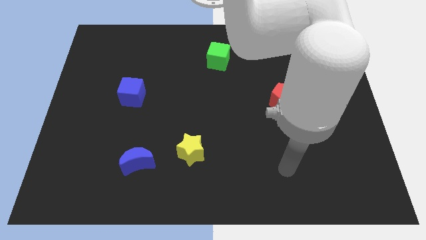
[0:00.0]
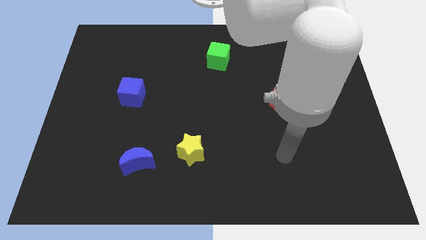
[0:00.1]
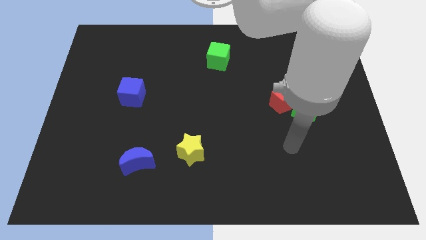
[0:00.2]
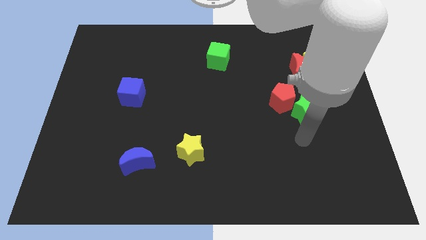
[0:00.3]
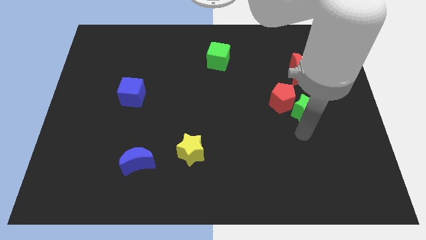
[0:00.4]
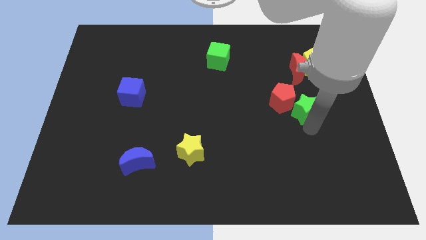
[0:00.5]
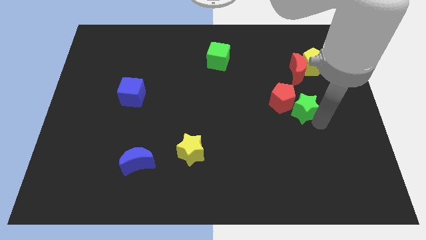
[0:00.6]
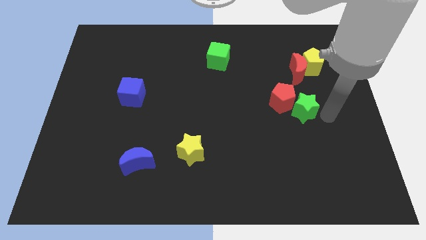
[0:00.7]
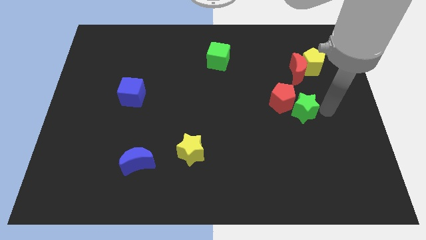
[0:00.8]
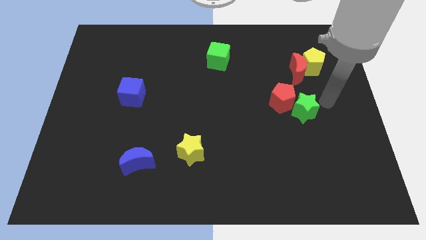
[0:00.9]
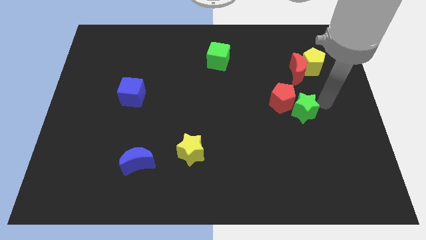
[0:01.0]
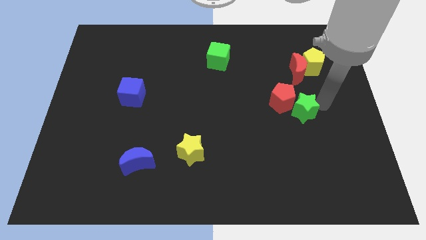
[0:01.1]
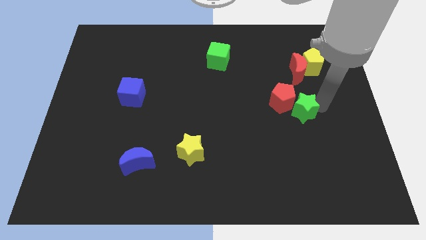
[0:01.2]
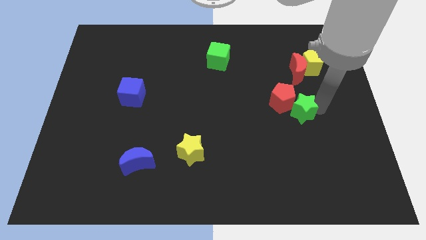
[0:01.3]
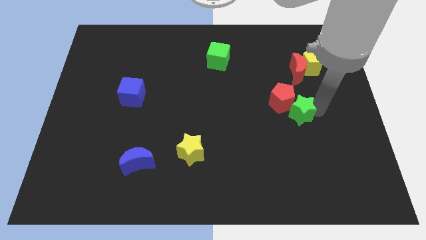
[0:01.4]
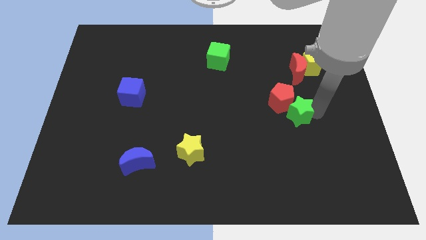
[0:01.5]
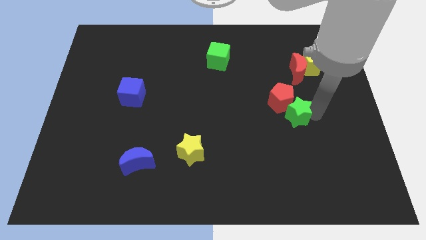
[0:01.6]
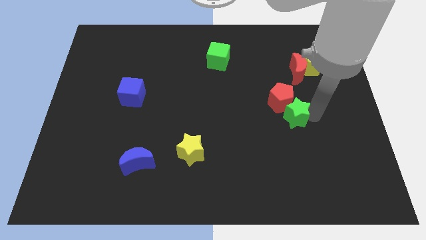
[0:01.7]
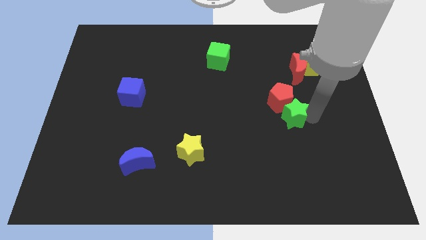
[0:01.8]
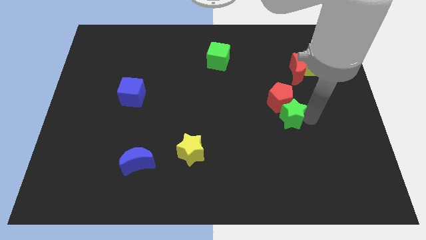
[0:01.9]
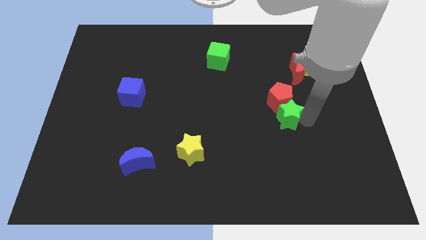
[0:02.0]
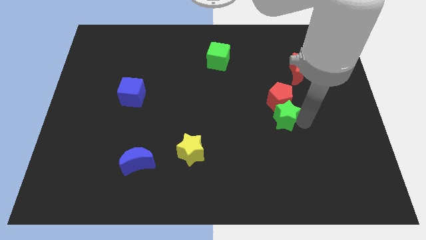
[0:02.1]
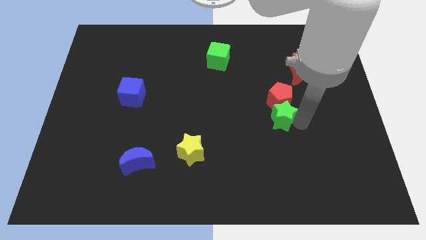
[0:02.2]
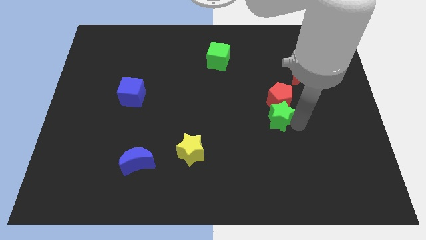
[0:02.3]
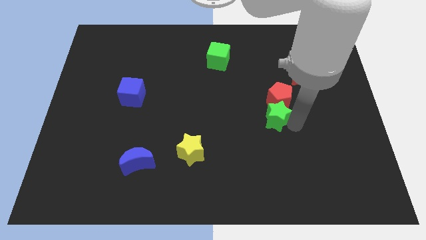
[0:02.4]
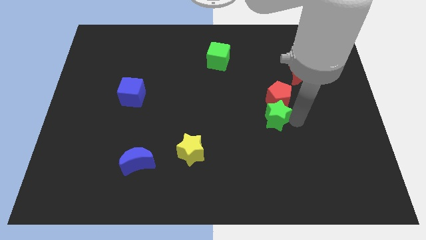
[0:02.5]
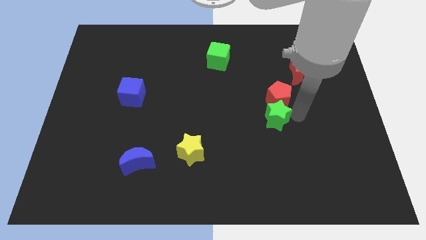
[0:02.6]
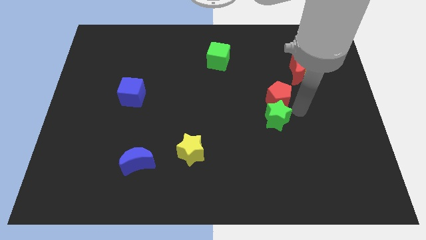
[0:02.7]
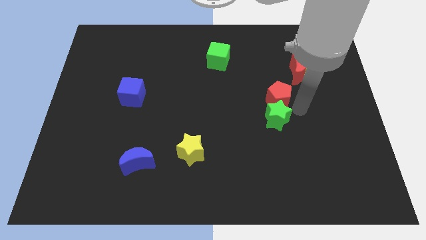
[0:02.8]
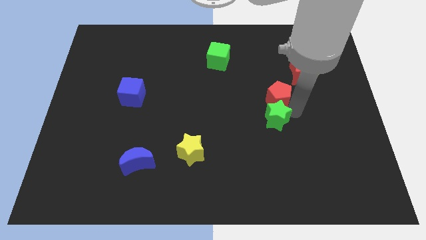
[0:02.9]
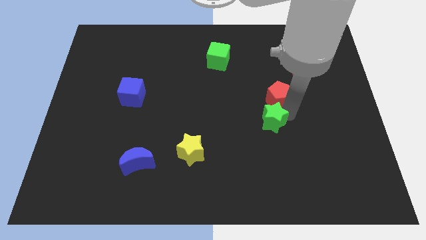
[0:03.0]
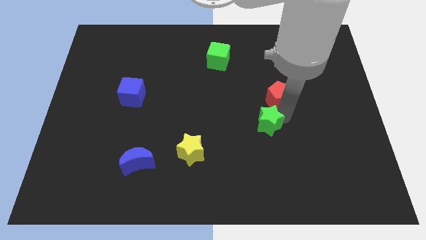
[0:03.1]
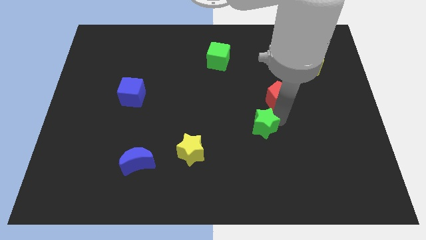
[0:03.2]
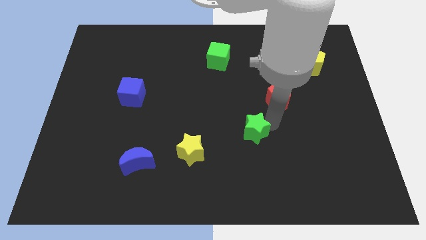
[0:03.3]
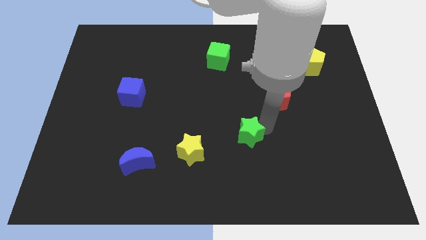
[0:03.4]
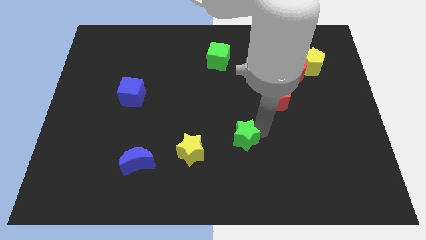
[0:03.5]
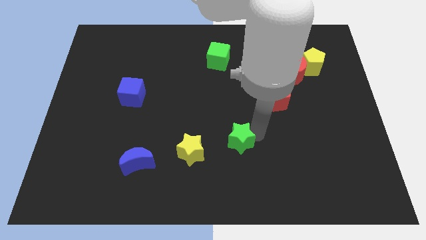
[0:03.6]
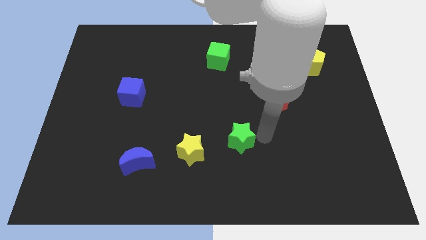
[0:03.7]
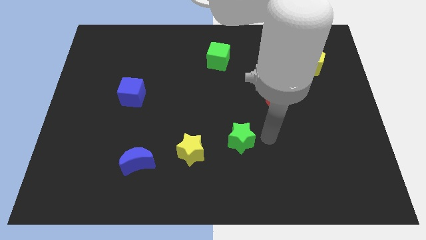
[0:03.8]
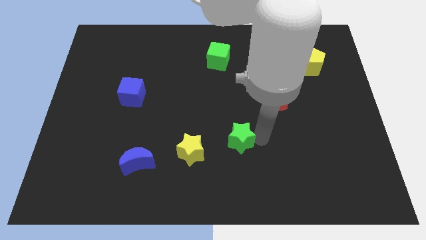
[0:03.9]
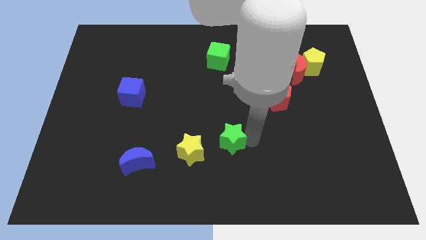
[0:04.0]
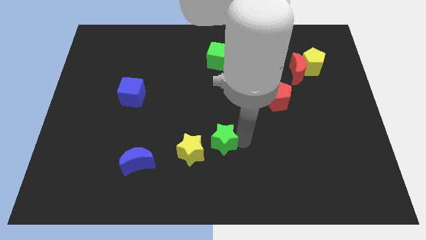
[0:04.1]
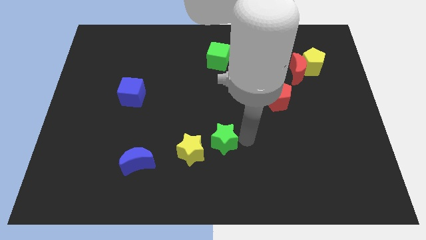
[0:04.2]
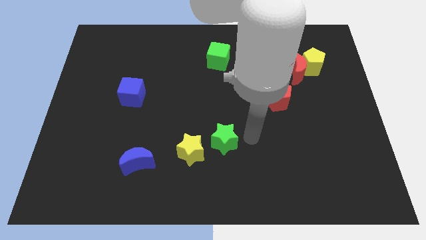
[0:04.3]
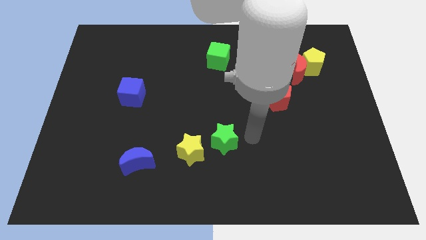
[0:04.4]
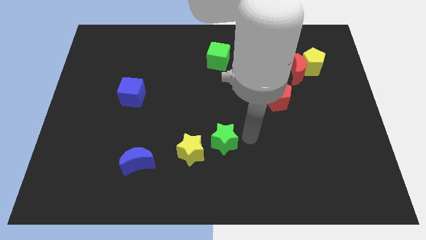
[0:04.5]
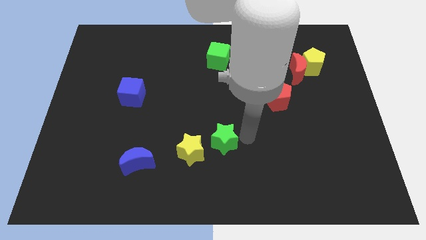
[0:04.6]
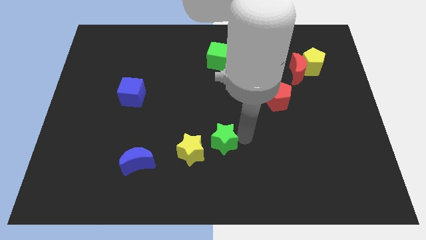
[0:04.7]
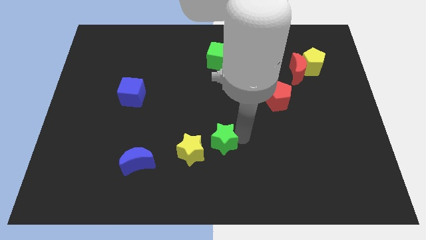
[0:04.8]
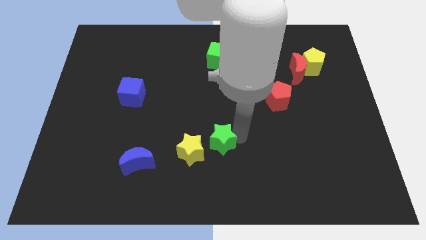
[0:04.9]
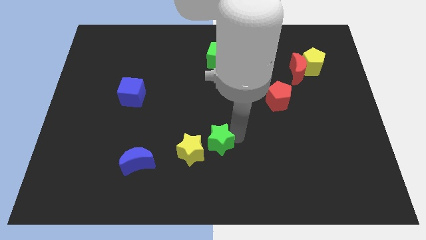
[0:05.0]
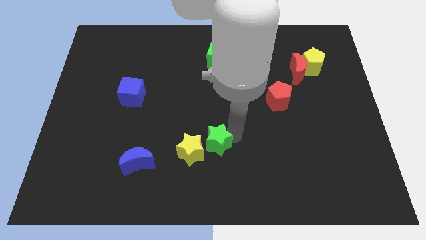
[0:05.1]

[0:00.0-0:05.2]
put the green star to the yellow star
